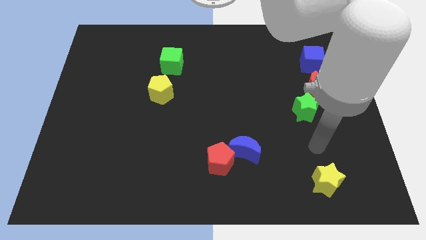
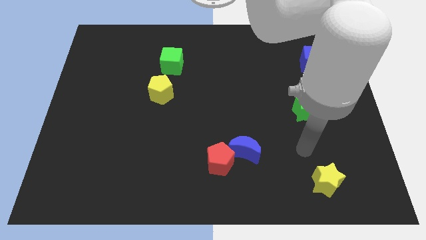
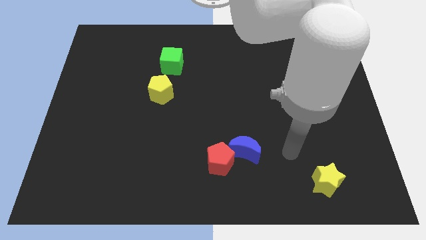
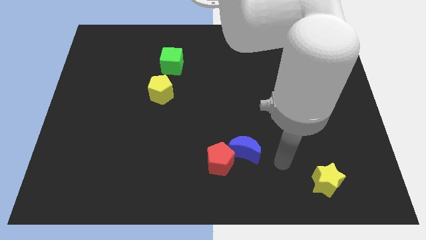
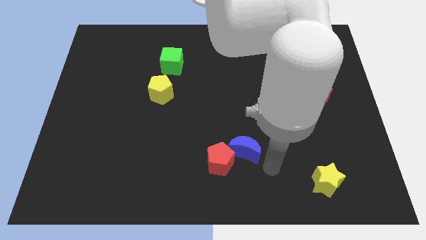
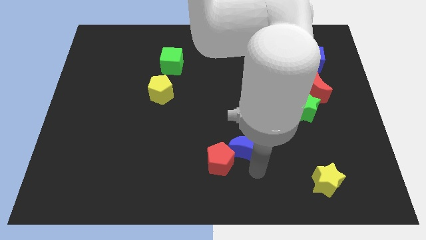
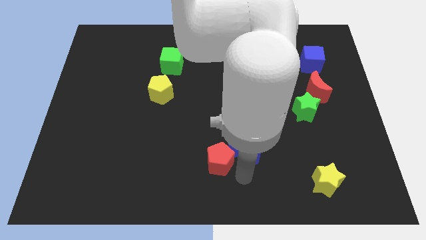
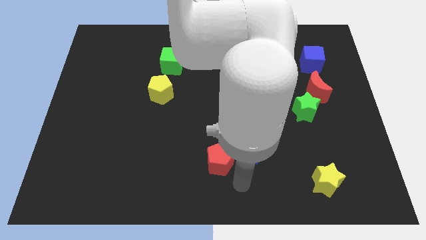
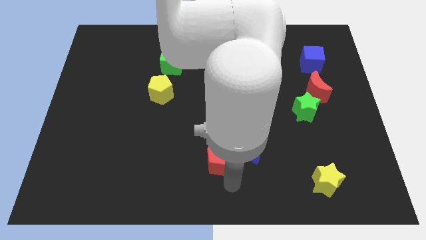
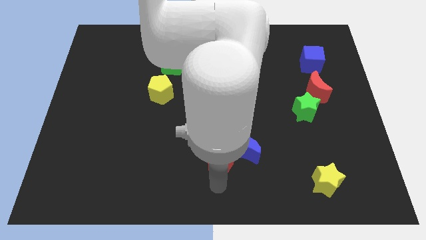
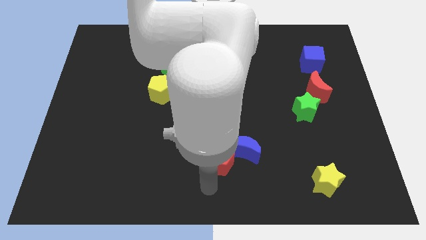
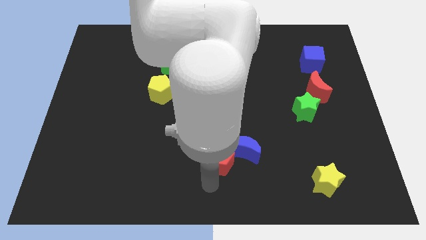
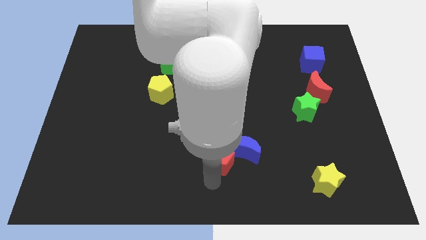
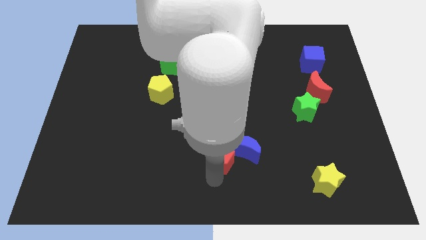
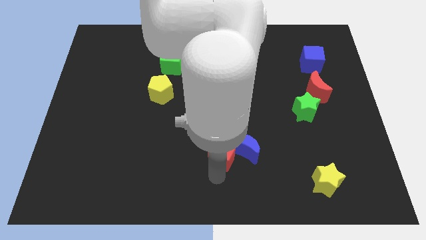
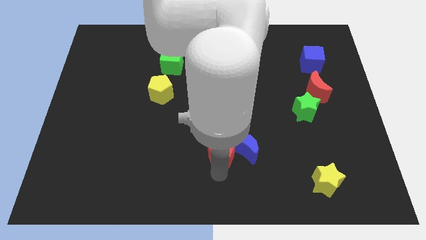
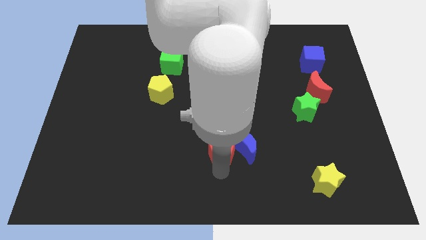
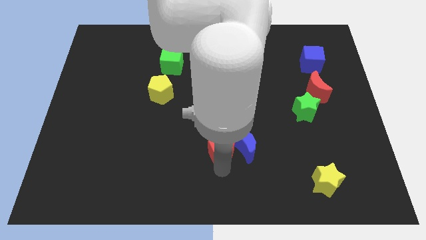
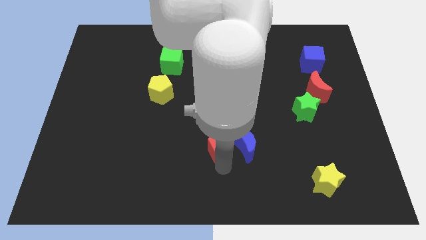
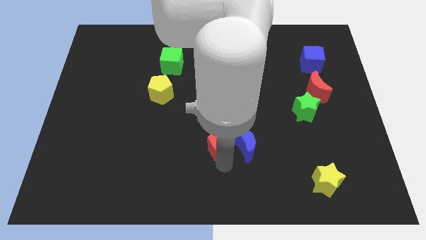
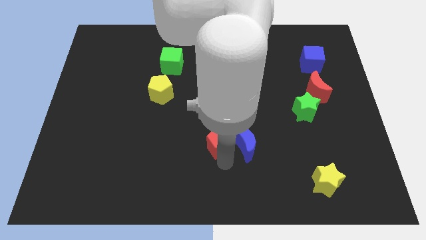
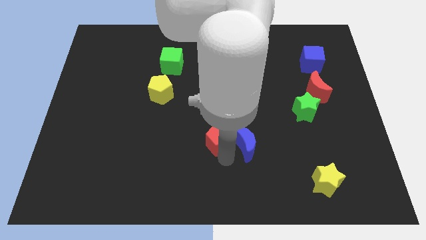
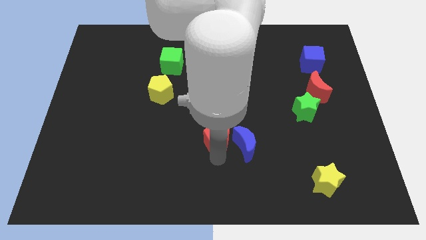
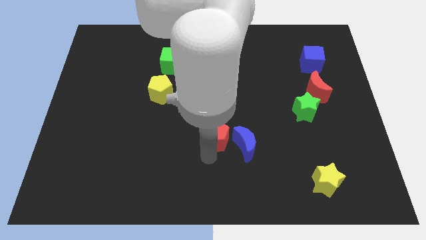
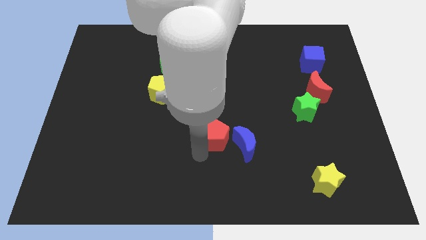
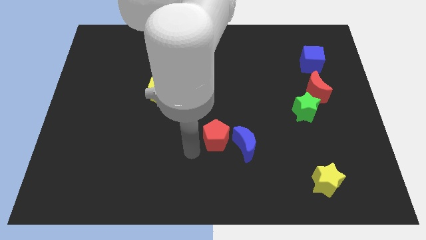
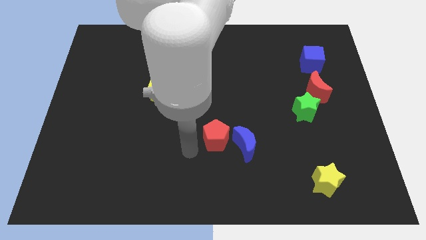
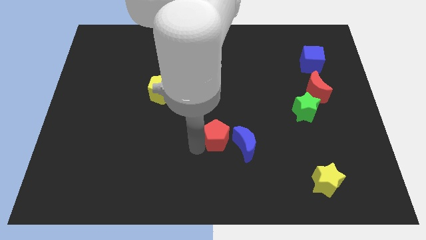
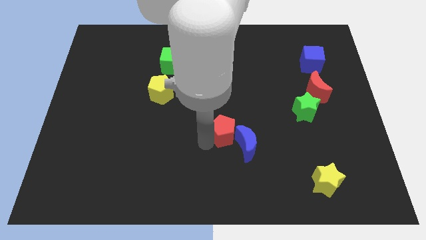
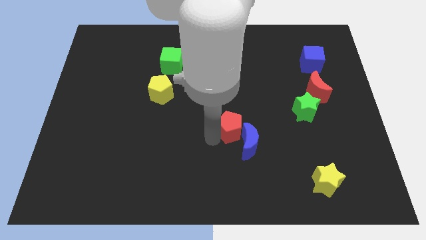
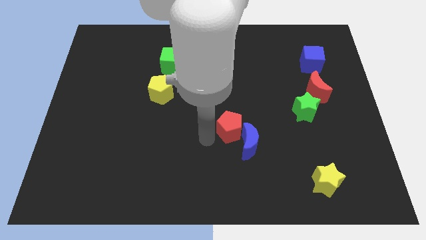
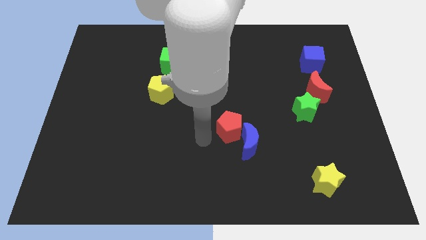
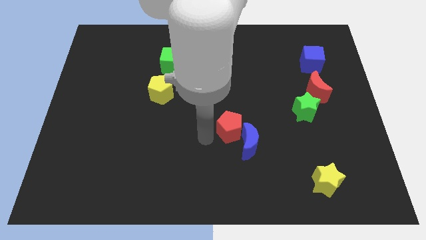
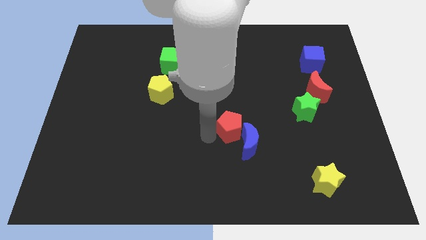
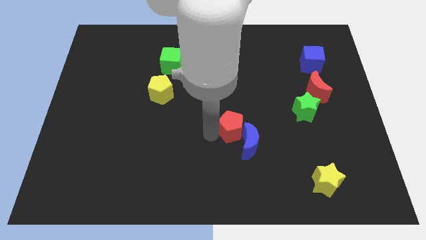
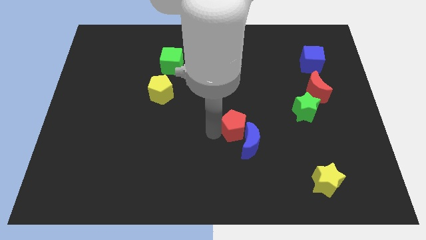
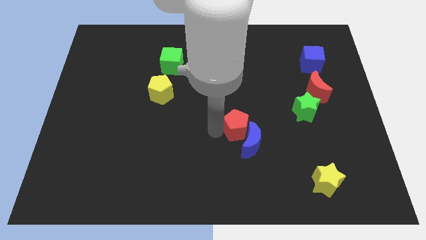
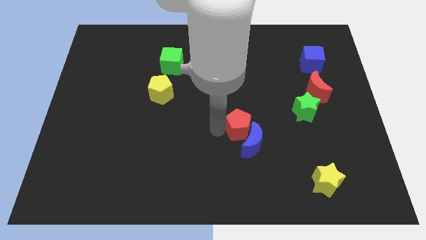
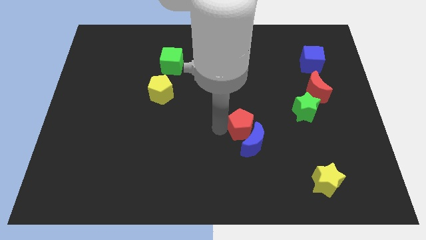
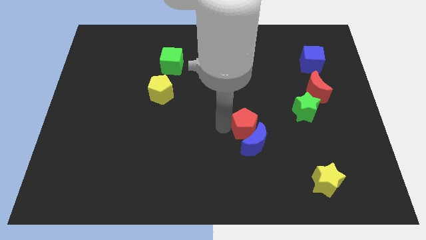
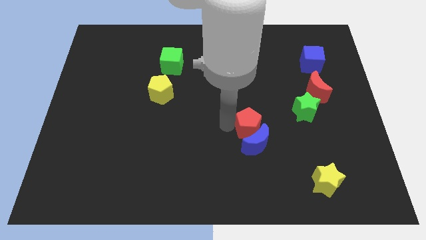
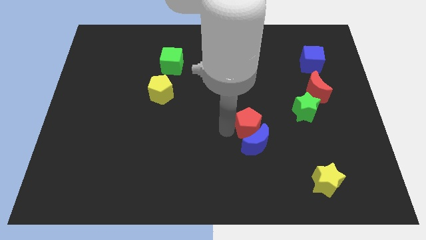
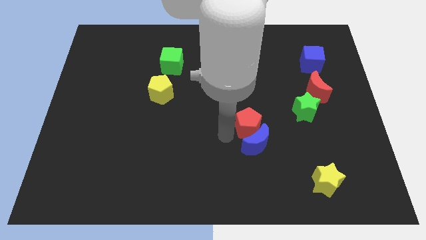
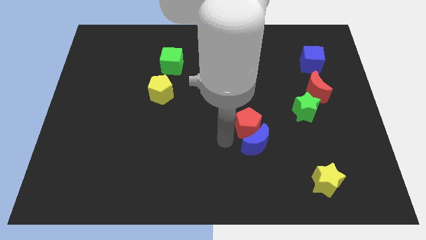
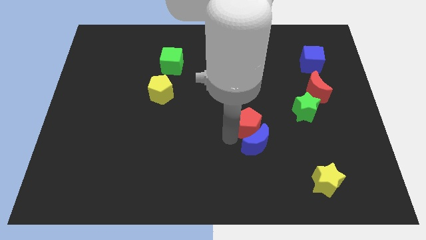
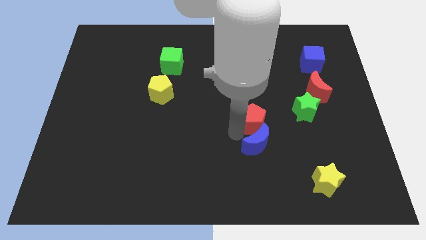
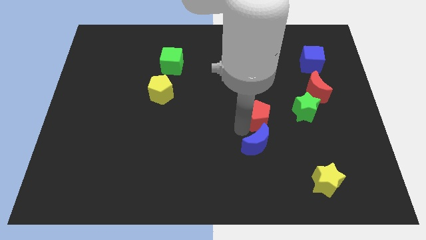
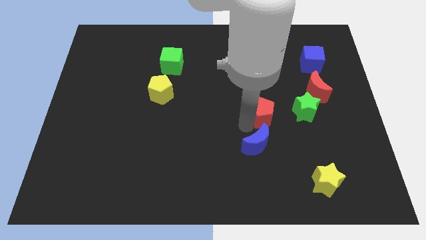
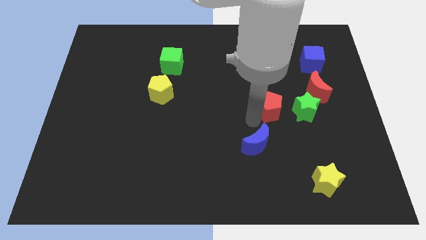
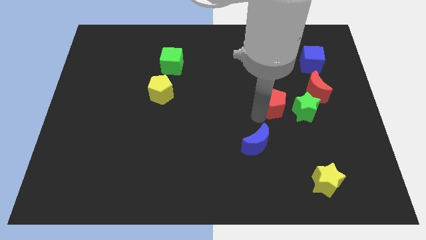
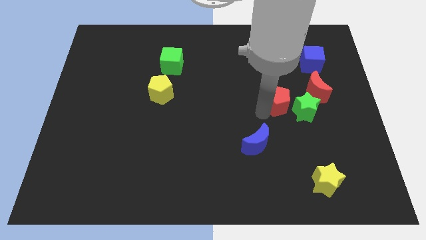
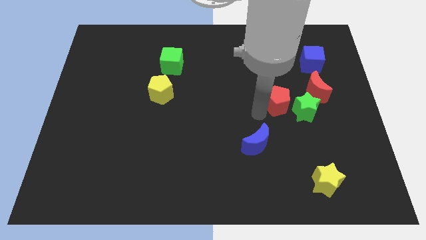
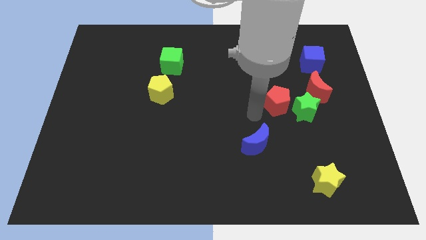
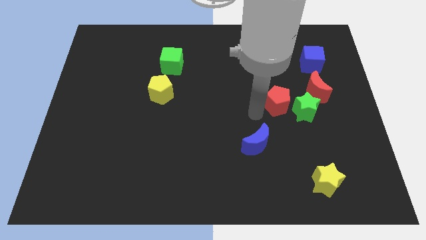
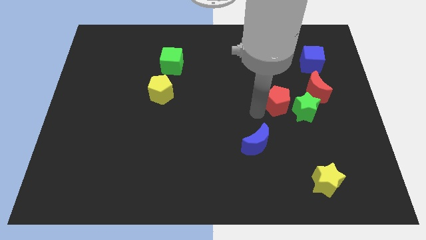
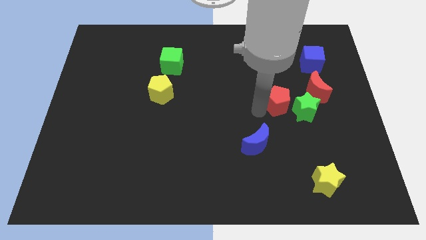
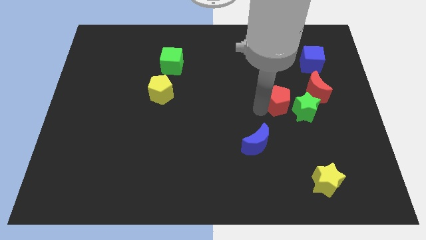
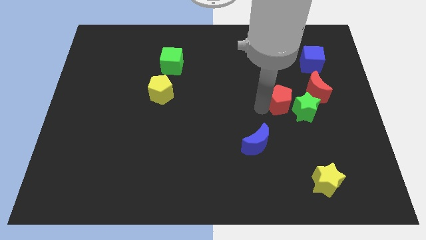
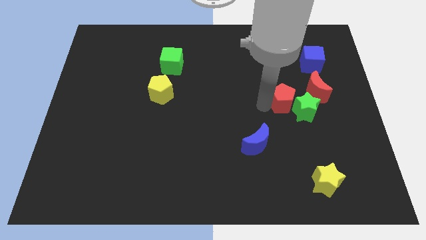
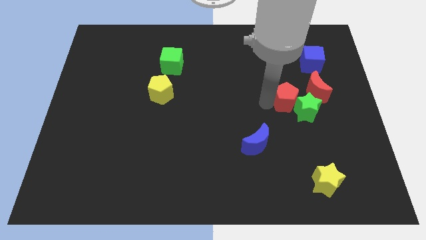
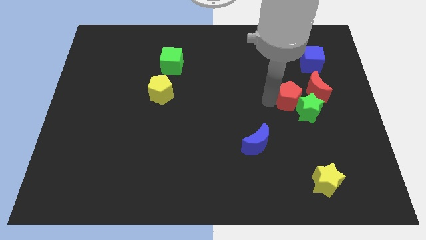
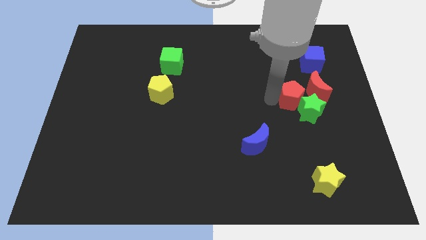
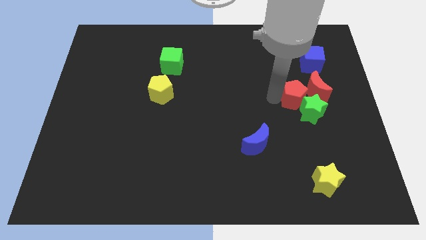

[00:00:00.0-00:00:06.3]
move the red pentagon towards the red moon

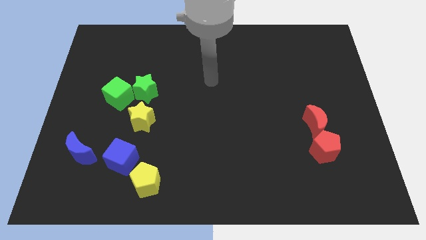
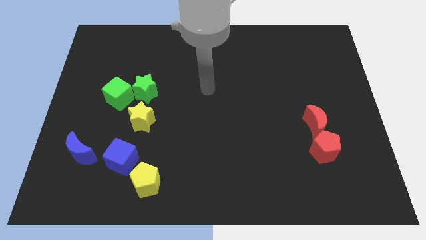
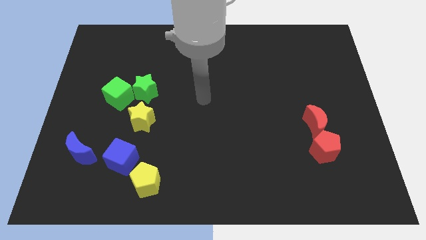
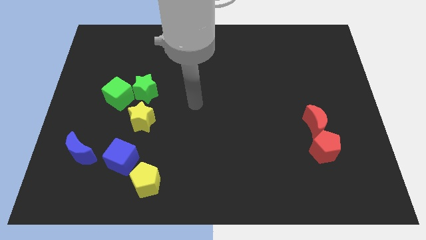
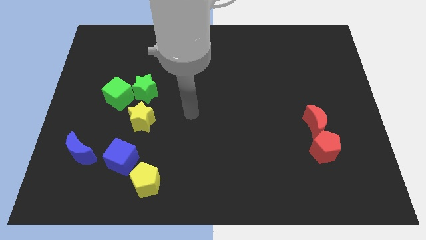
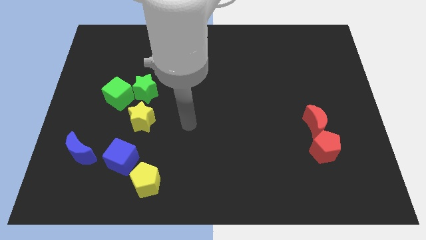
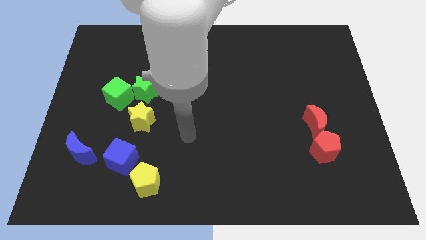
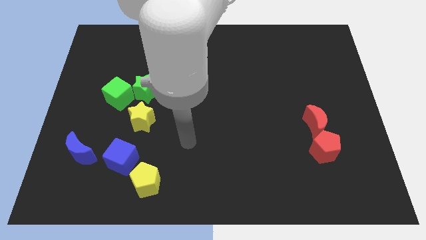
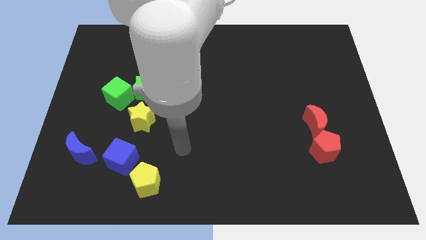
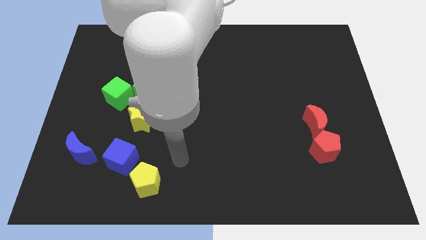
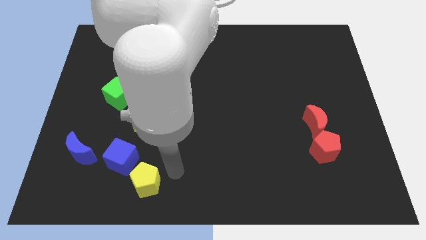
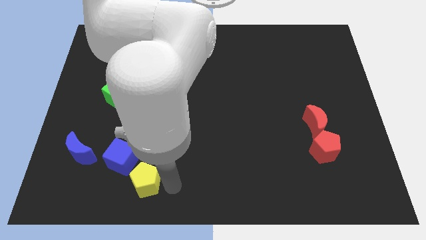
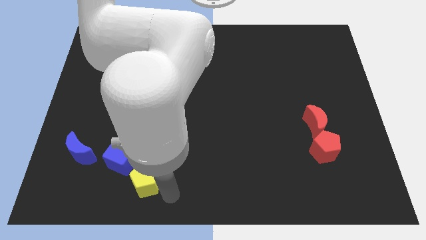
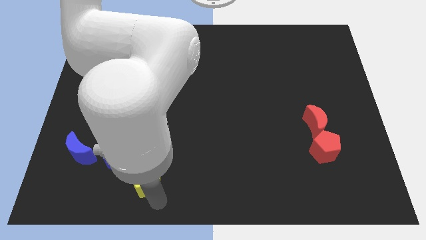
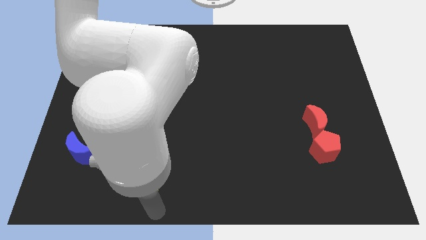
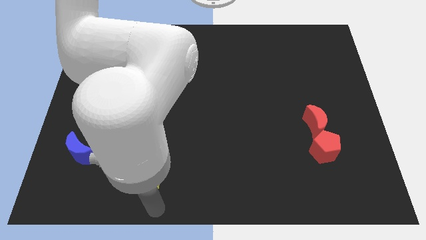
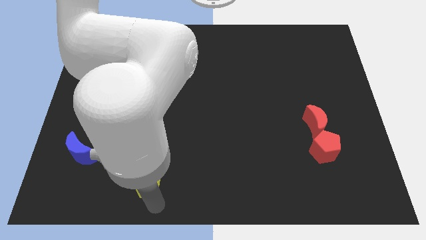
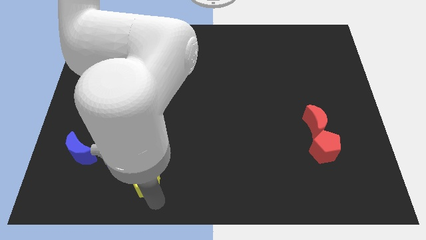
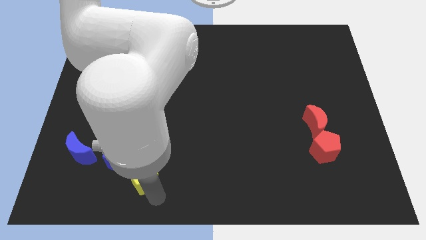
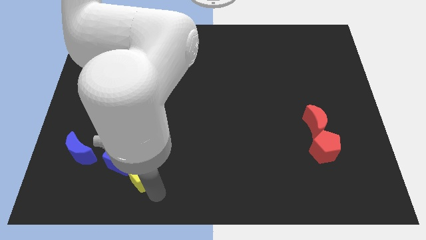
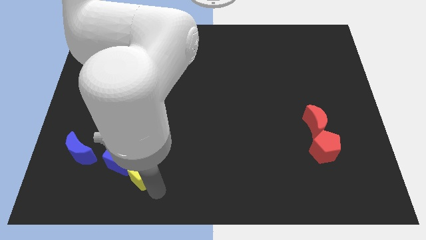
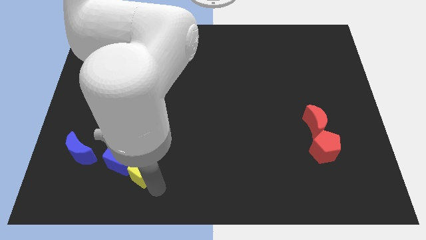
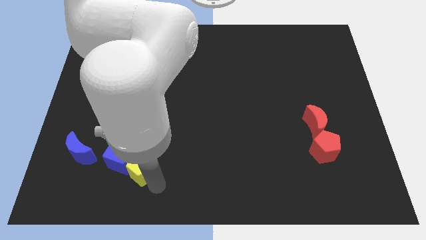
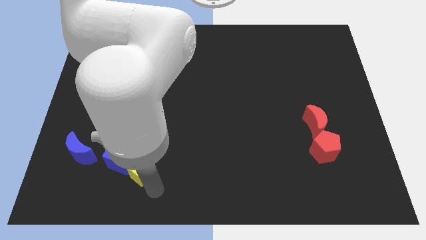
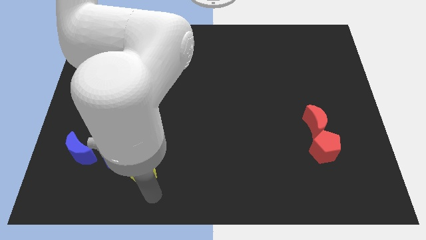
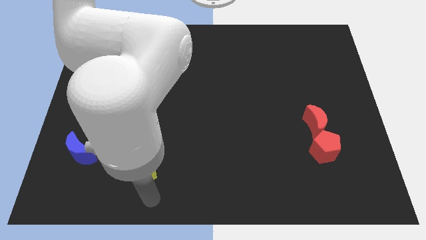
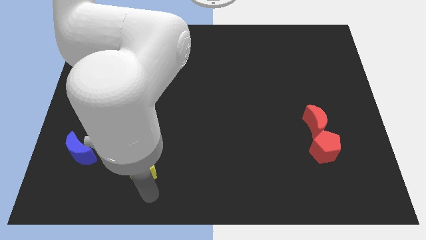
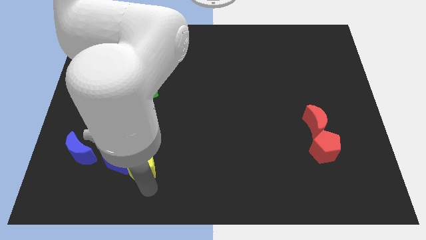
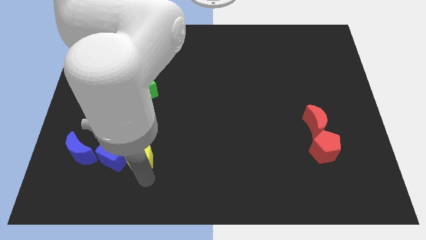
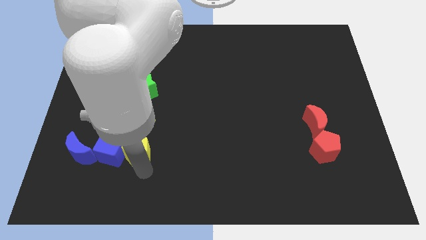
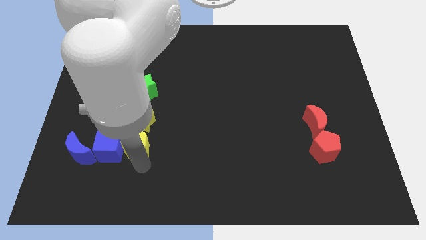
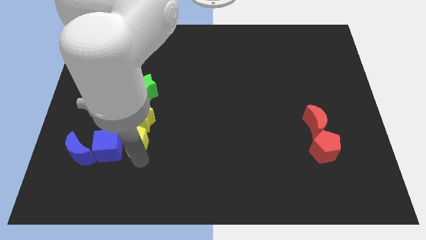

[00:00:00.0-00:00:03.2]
put the yellow pentagon to the yellow star
